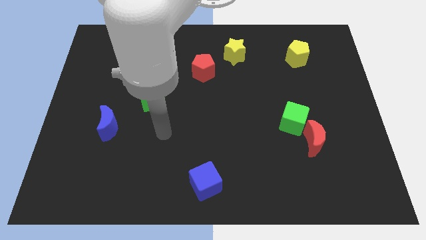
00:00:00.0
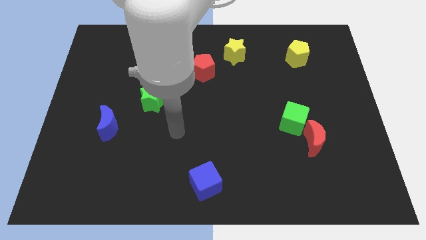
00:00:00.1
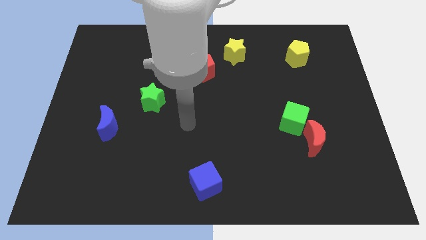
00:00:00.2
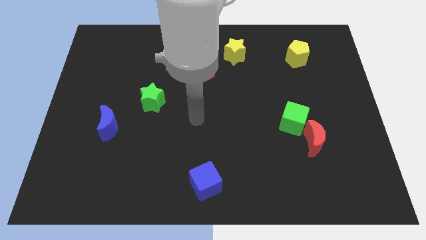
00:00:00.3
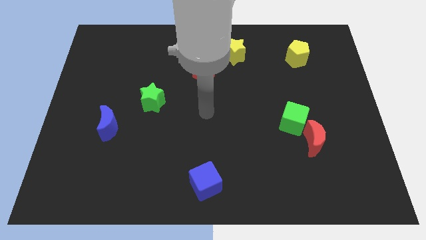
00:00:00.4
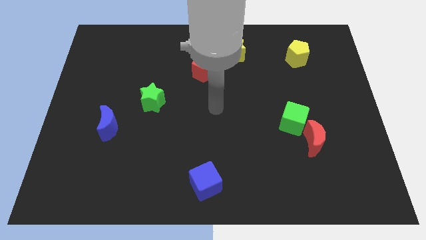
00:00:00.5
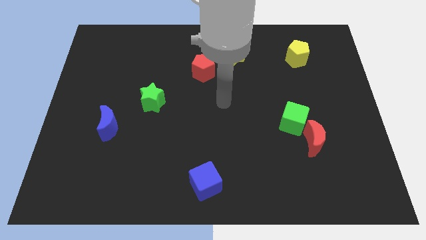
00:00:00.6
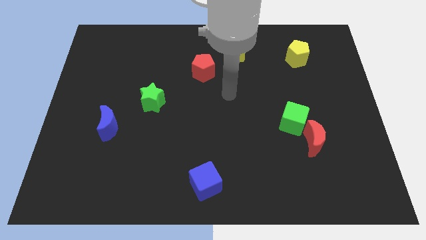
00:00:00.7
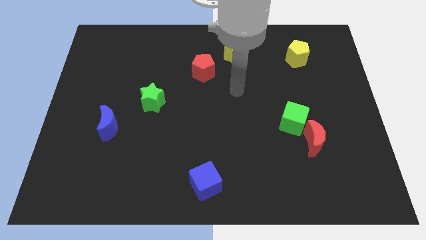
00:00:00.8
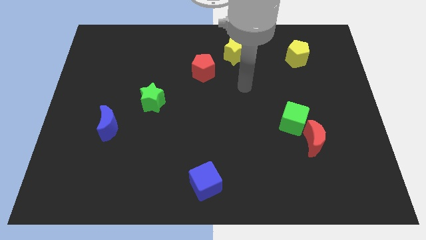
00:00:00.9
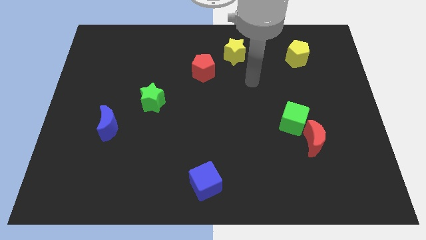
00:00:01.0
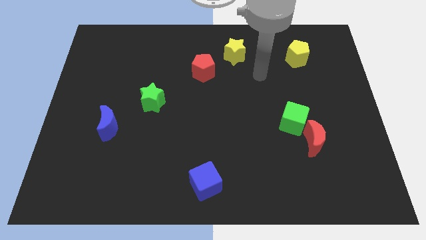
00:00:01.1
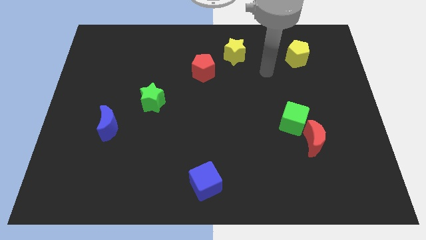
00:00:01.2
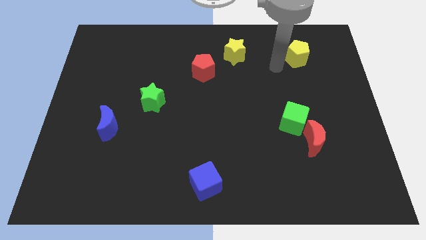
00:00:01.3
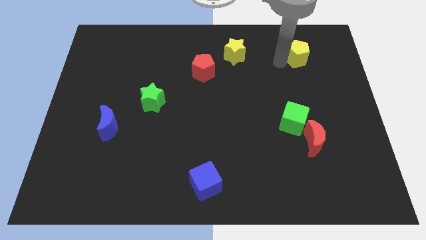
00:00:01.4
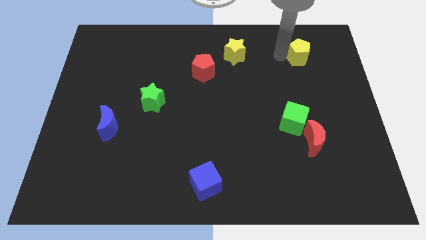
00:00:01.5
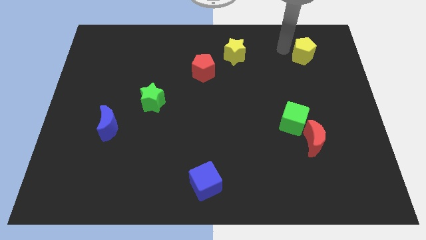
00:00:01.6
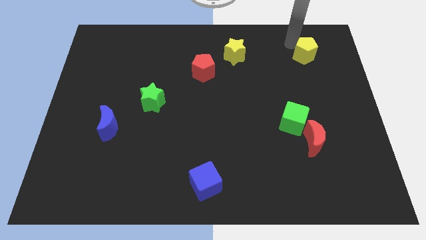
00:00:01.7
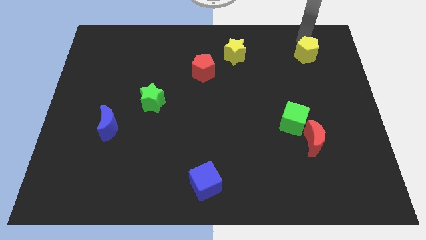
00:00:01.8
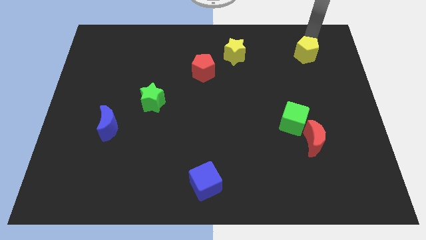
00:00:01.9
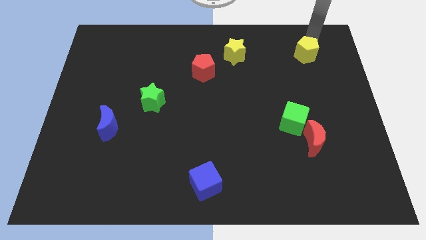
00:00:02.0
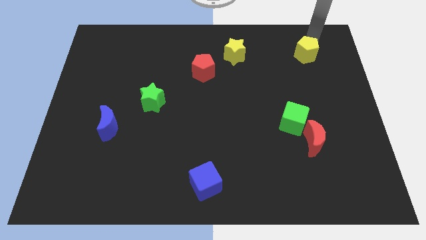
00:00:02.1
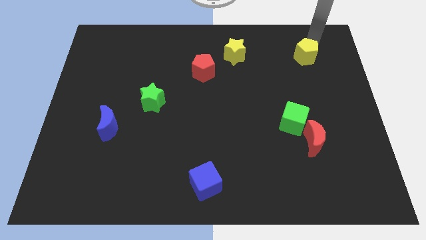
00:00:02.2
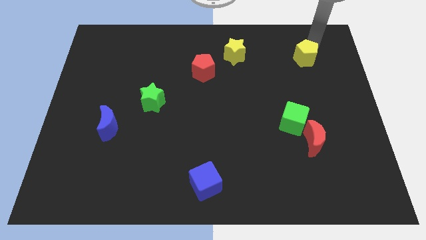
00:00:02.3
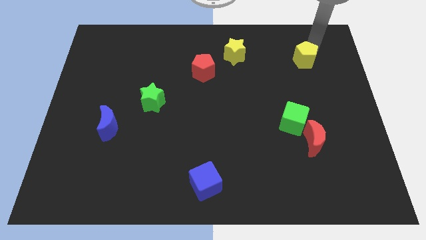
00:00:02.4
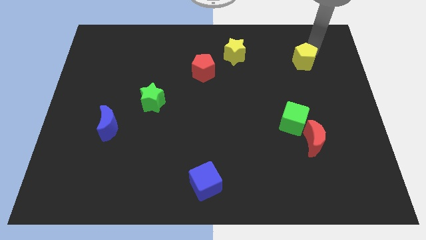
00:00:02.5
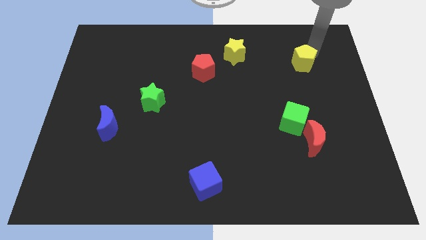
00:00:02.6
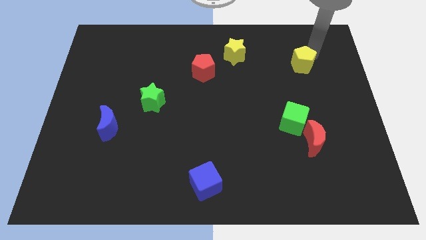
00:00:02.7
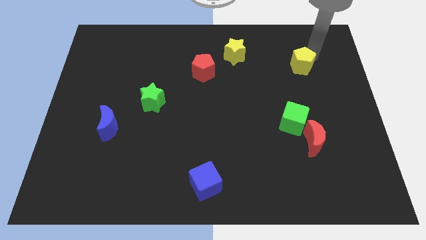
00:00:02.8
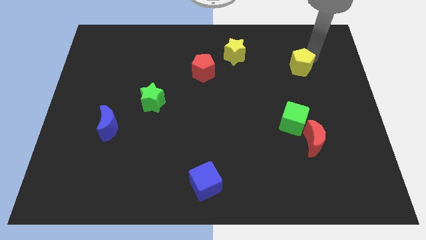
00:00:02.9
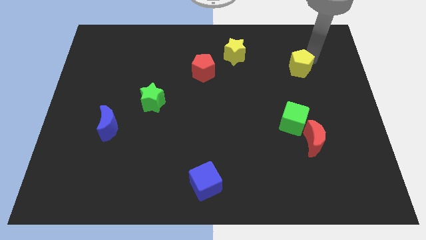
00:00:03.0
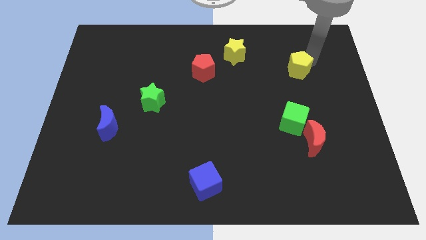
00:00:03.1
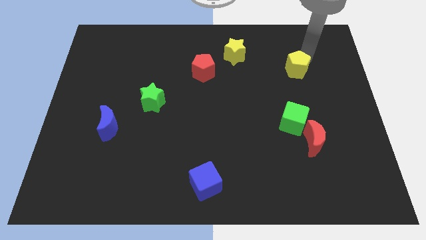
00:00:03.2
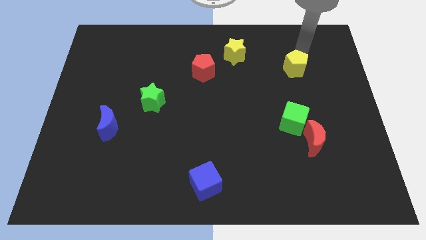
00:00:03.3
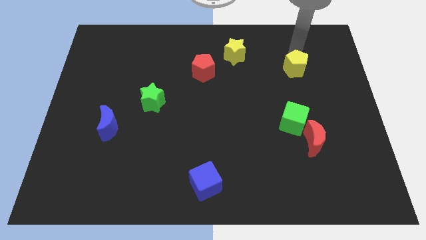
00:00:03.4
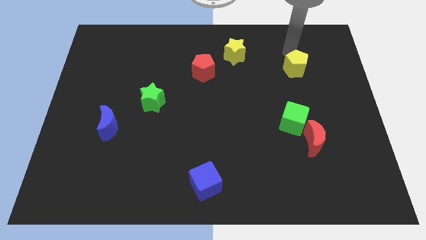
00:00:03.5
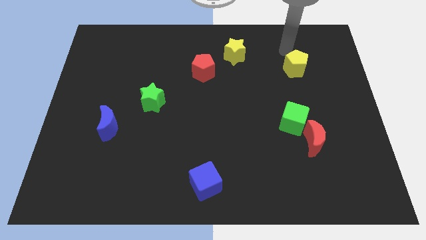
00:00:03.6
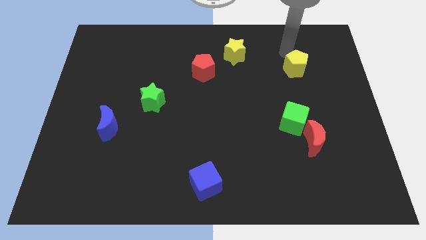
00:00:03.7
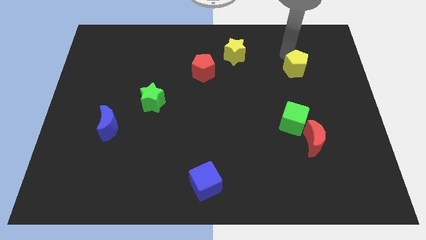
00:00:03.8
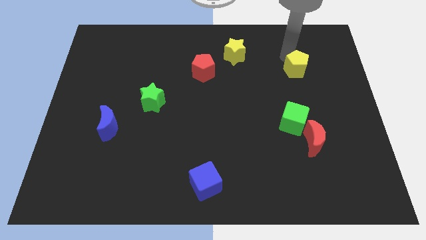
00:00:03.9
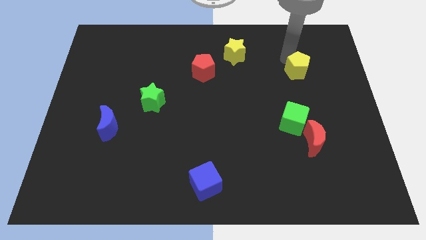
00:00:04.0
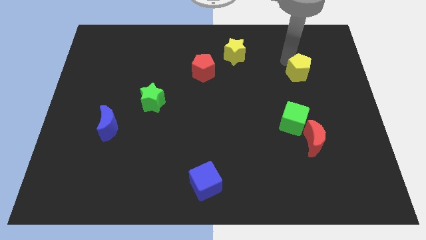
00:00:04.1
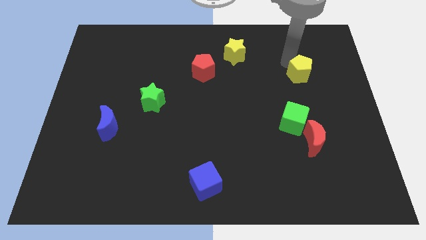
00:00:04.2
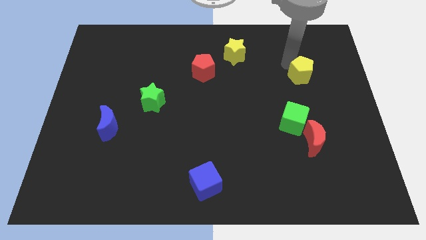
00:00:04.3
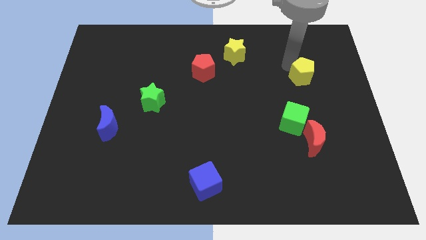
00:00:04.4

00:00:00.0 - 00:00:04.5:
slightly push the yellow pentagon down

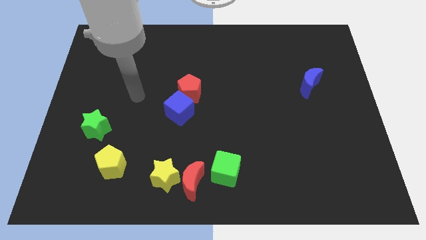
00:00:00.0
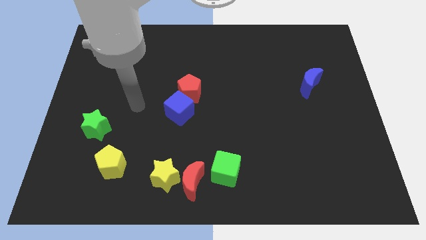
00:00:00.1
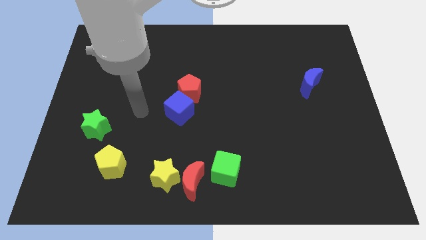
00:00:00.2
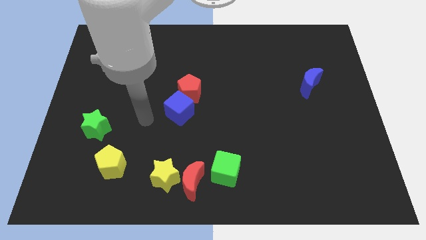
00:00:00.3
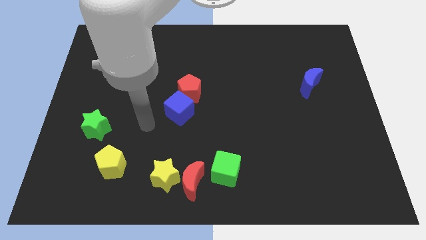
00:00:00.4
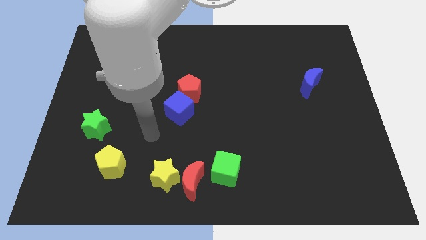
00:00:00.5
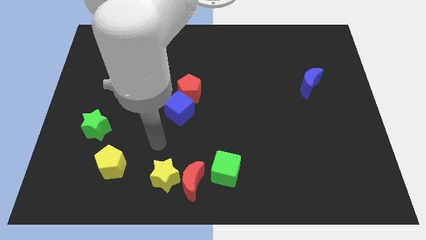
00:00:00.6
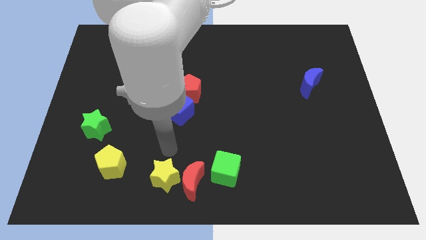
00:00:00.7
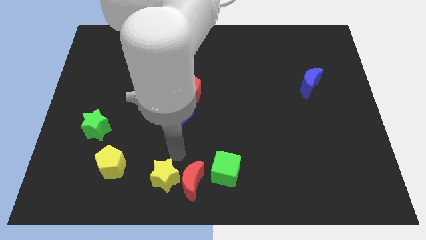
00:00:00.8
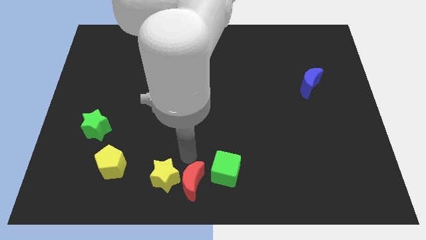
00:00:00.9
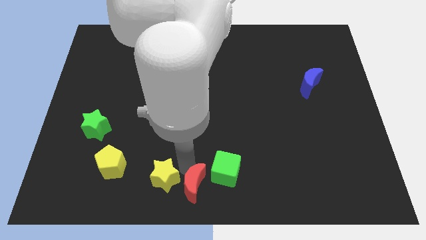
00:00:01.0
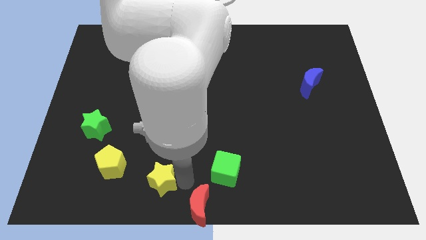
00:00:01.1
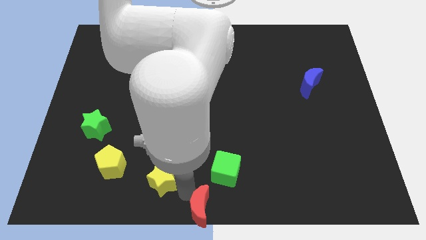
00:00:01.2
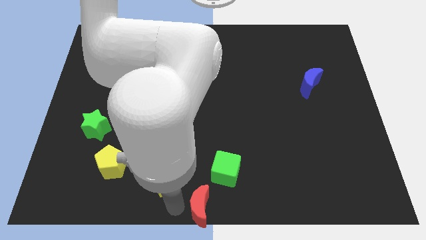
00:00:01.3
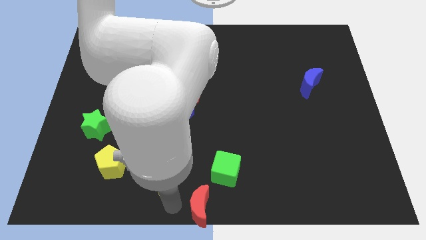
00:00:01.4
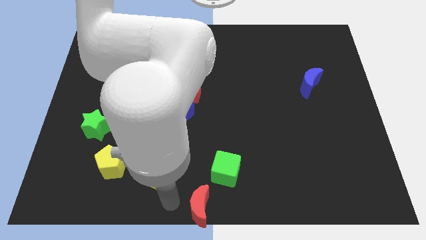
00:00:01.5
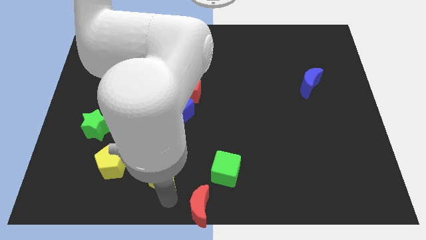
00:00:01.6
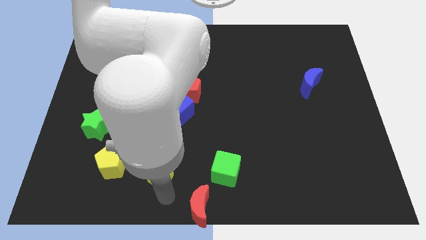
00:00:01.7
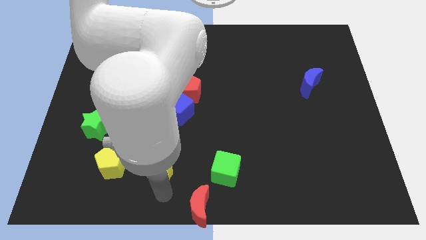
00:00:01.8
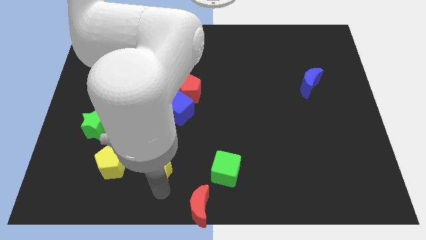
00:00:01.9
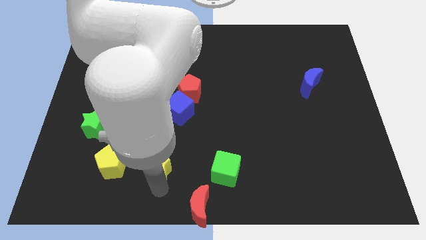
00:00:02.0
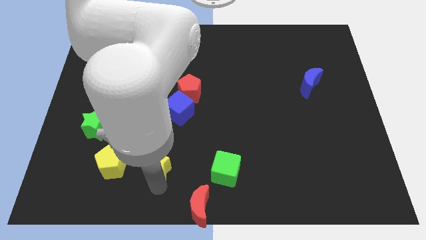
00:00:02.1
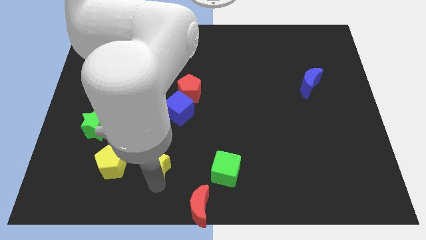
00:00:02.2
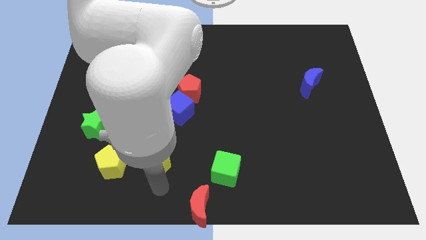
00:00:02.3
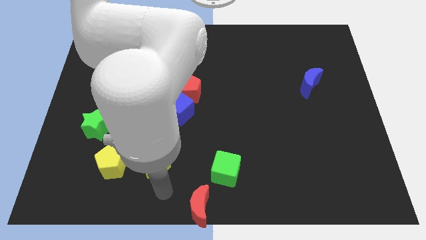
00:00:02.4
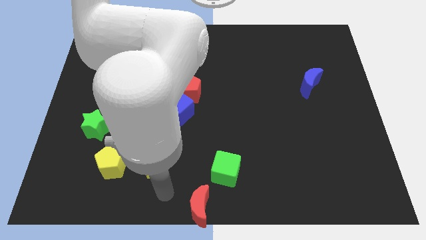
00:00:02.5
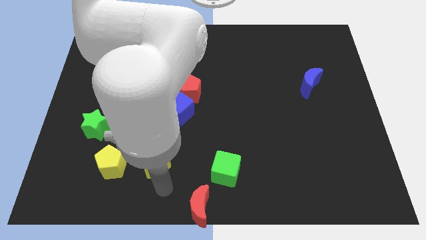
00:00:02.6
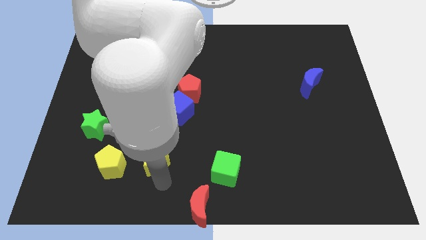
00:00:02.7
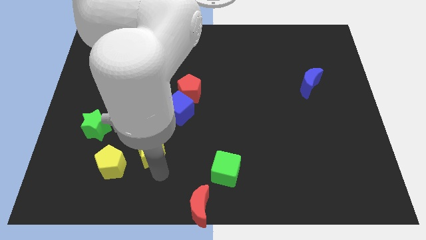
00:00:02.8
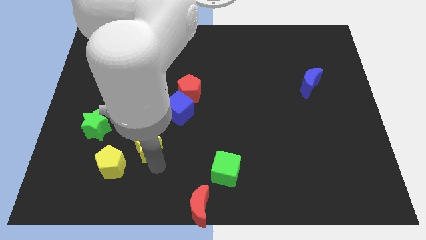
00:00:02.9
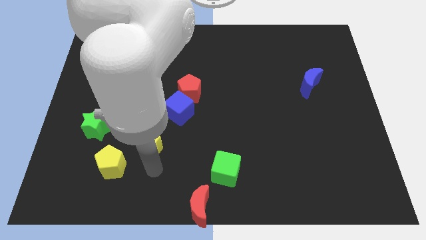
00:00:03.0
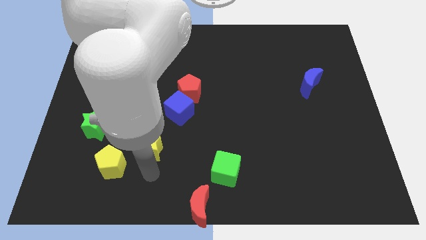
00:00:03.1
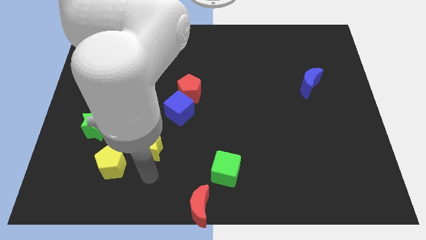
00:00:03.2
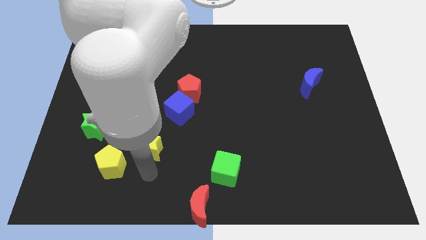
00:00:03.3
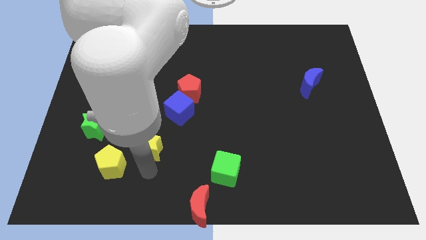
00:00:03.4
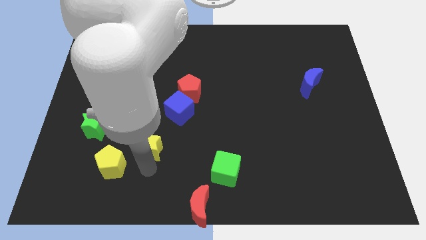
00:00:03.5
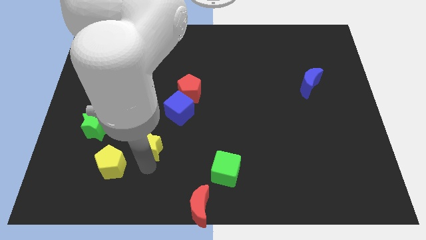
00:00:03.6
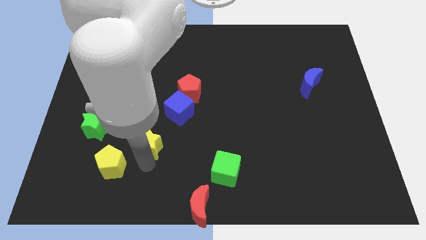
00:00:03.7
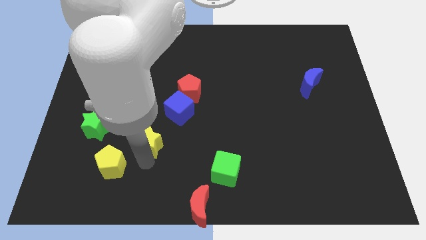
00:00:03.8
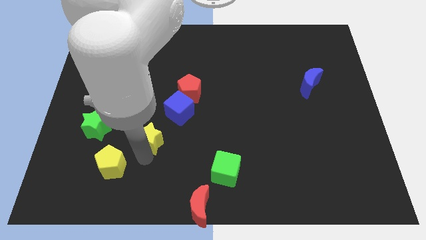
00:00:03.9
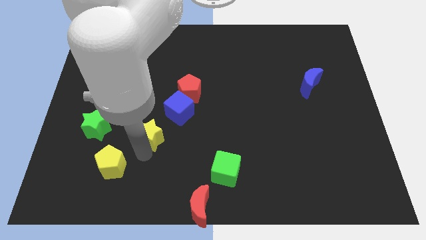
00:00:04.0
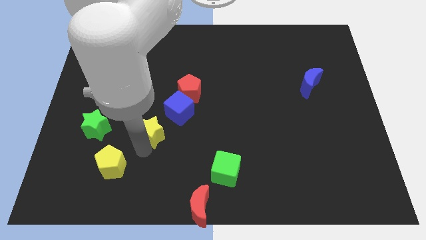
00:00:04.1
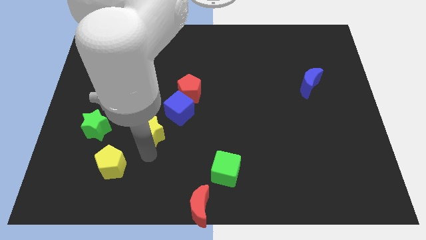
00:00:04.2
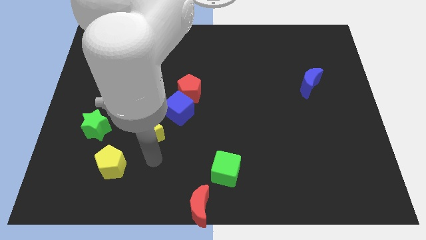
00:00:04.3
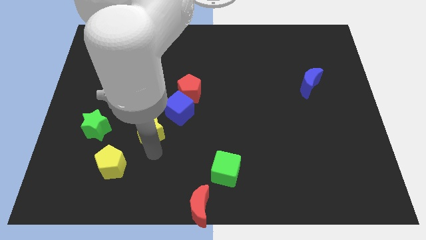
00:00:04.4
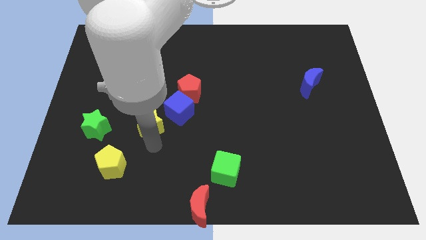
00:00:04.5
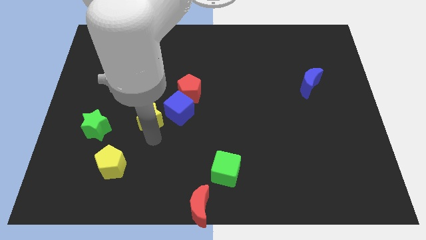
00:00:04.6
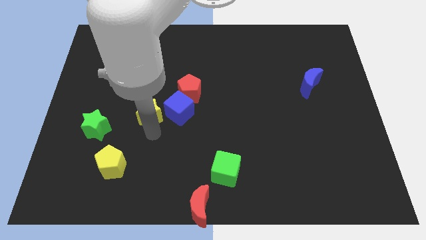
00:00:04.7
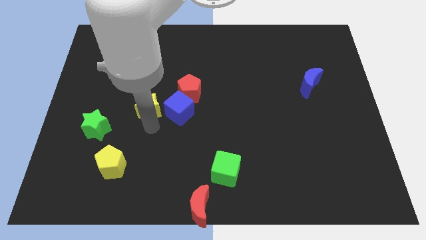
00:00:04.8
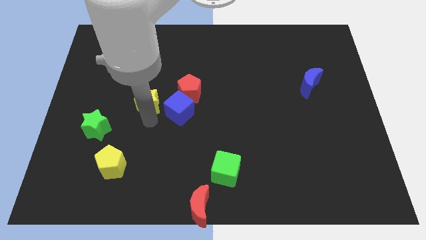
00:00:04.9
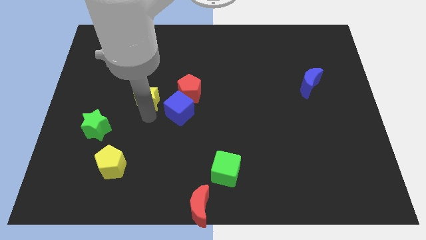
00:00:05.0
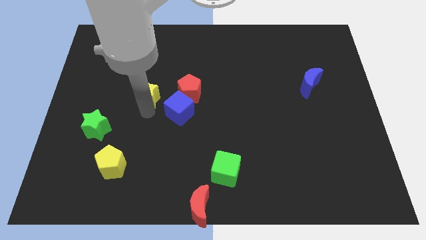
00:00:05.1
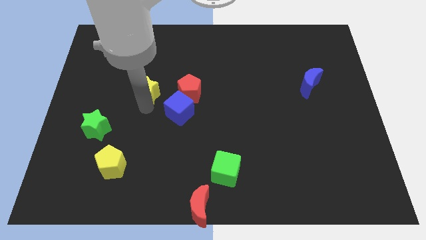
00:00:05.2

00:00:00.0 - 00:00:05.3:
move the yellow star up
